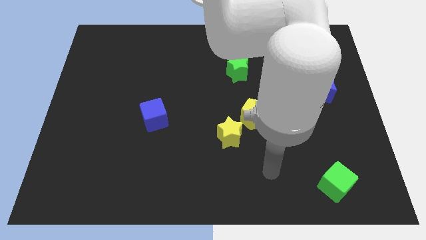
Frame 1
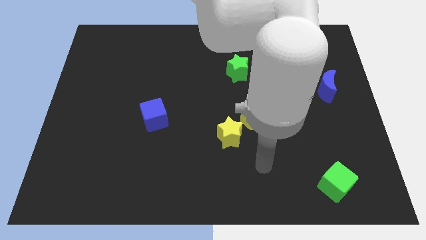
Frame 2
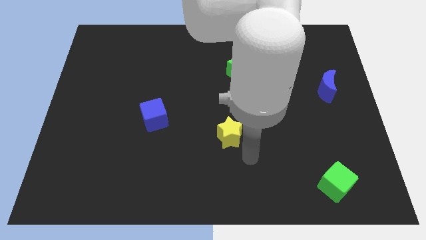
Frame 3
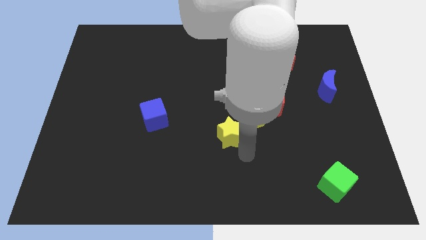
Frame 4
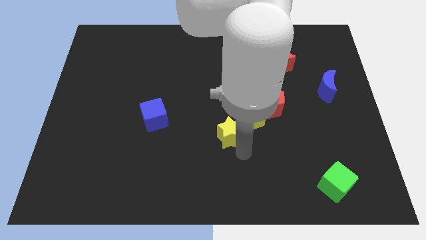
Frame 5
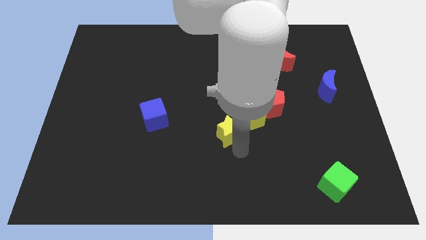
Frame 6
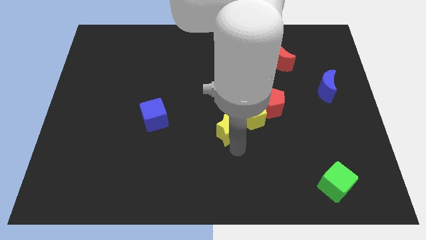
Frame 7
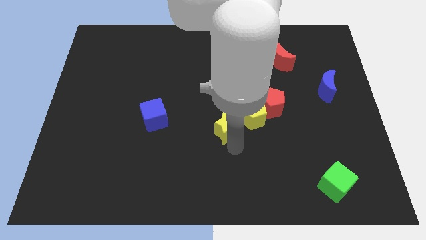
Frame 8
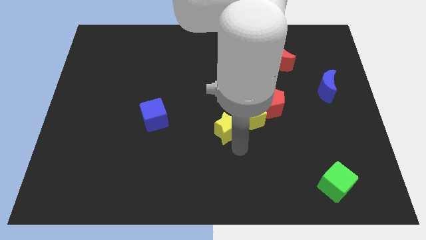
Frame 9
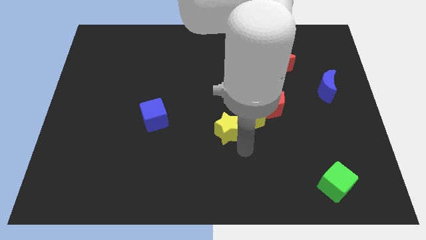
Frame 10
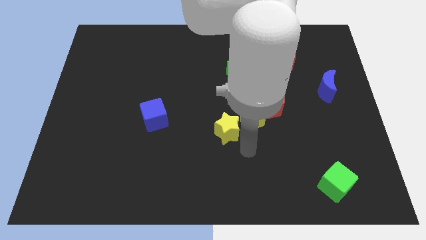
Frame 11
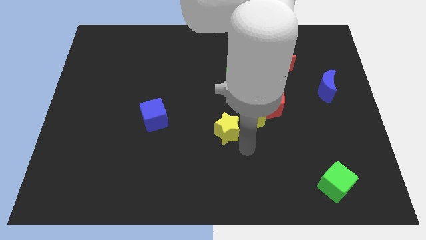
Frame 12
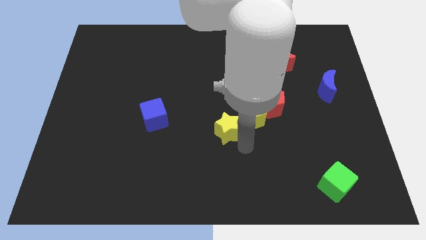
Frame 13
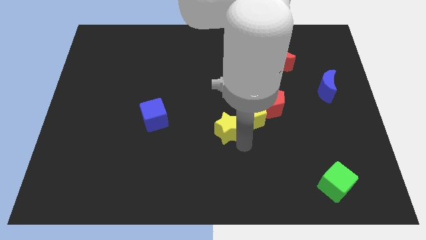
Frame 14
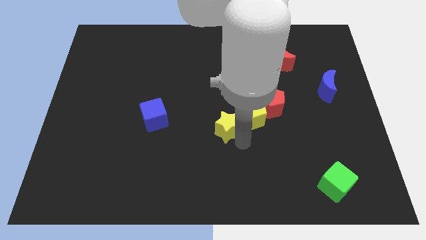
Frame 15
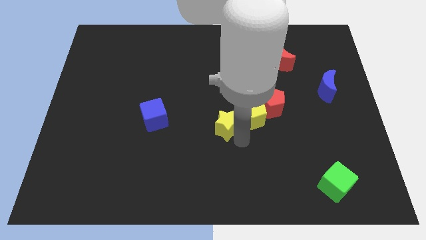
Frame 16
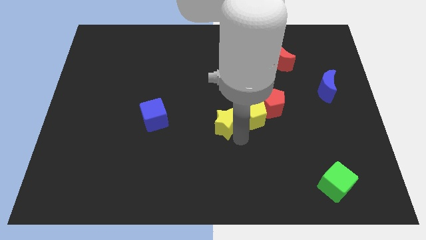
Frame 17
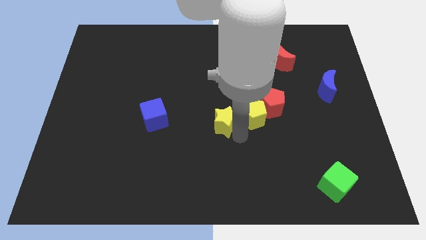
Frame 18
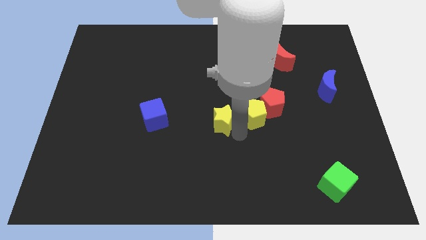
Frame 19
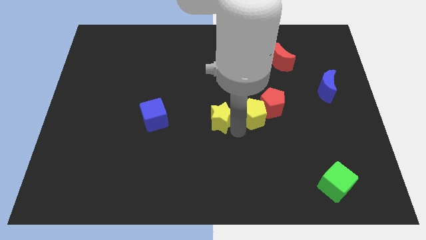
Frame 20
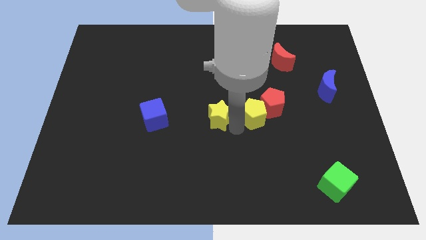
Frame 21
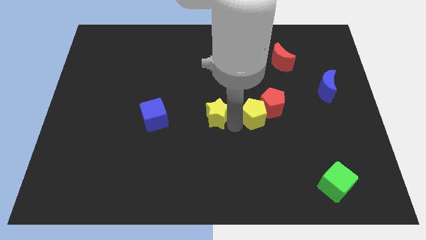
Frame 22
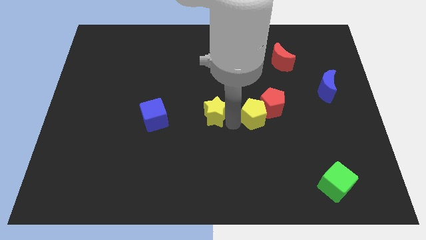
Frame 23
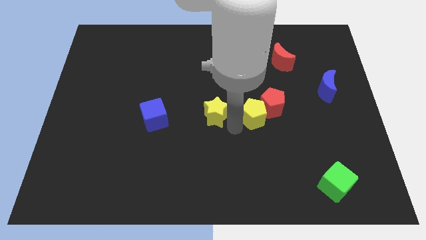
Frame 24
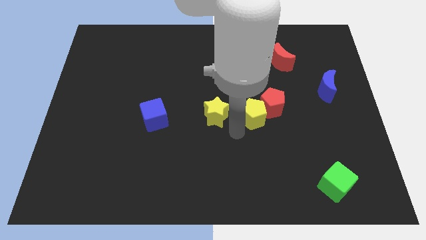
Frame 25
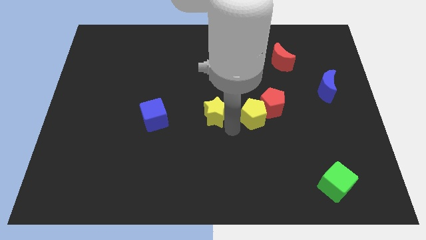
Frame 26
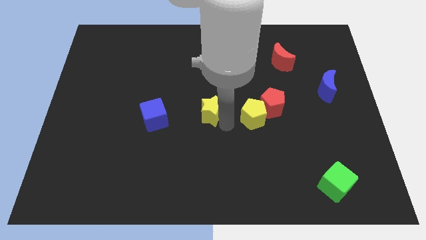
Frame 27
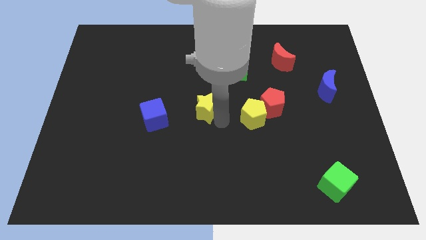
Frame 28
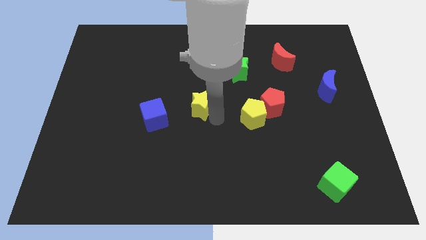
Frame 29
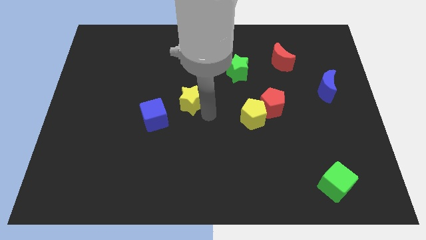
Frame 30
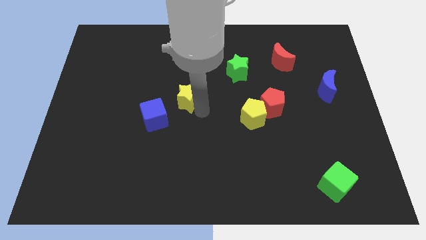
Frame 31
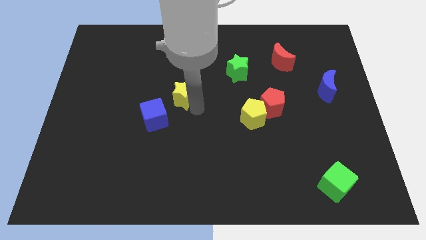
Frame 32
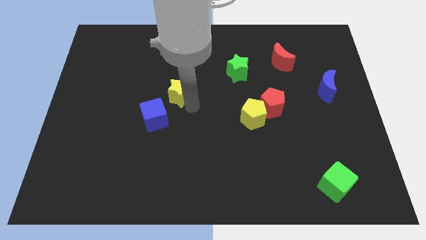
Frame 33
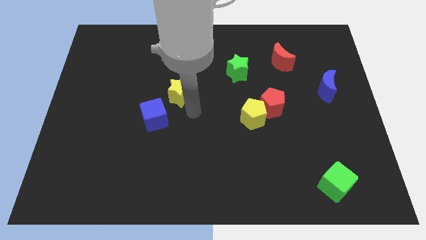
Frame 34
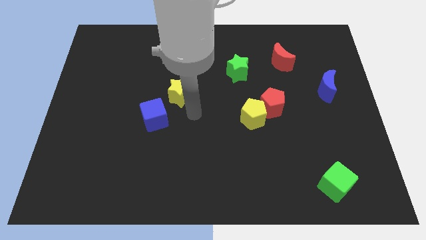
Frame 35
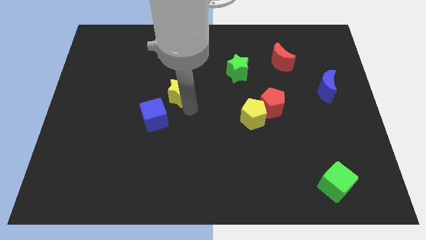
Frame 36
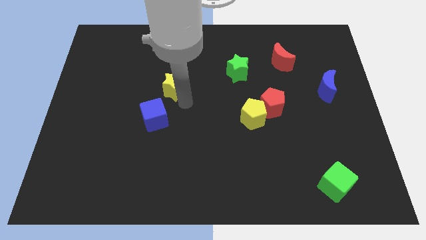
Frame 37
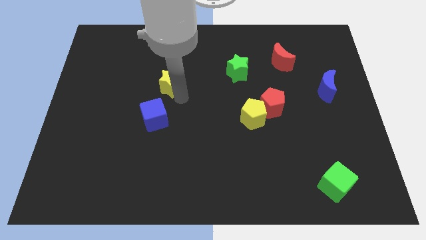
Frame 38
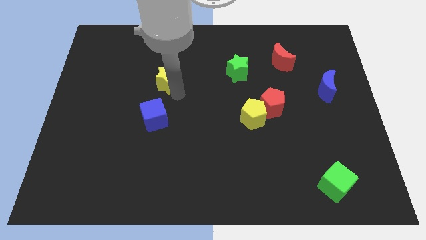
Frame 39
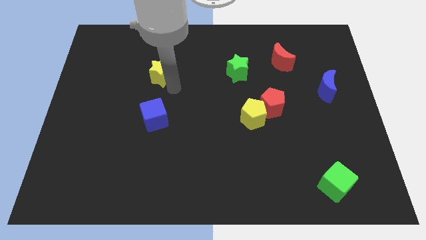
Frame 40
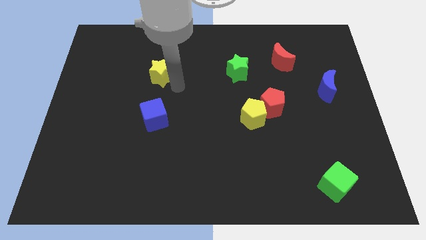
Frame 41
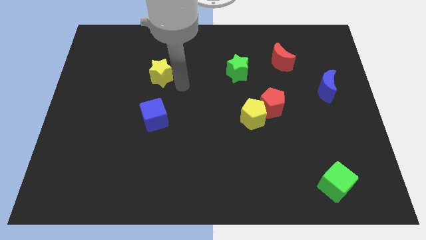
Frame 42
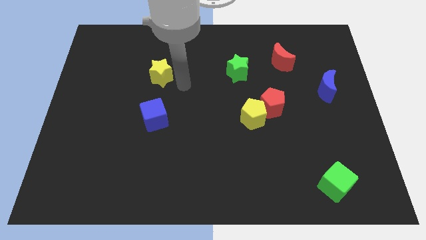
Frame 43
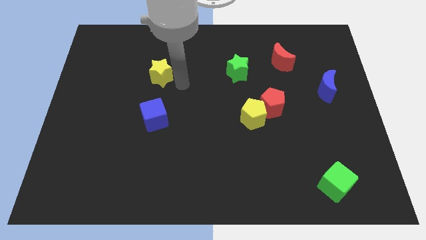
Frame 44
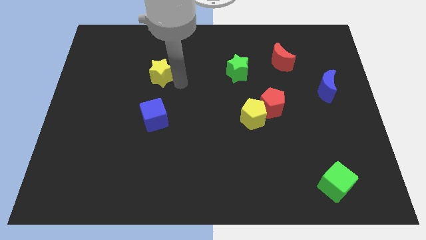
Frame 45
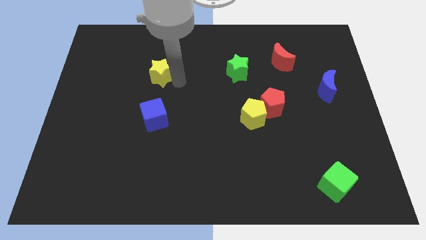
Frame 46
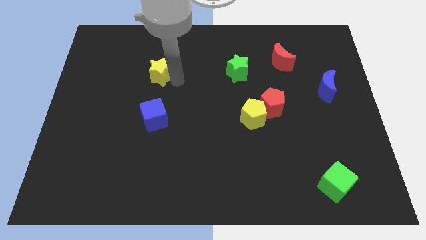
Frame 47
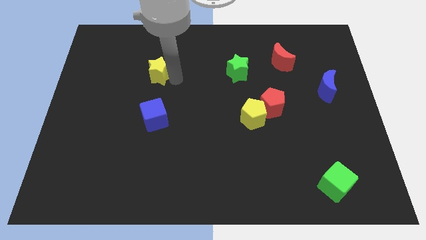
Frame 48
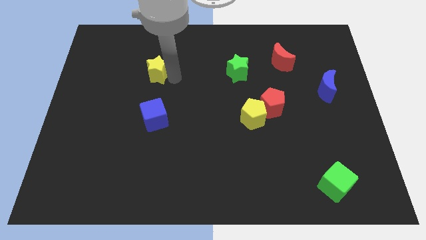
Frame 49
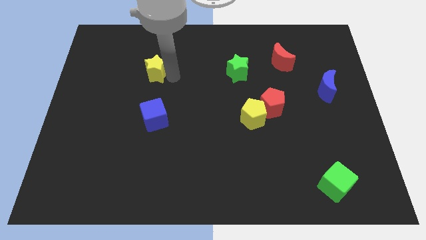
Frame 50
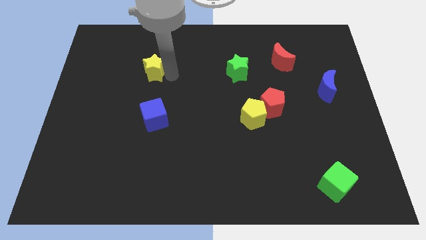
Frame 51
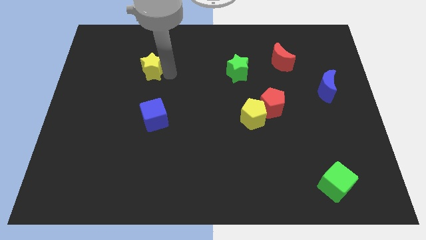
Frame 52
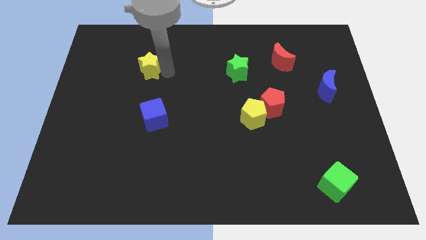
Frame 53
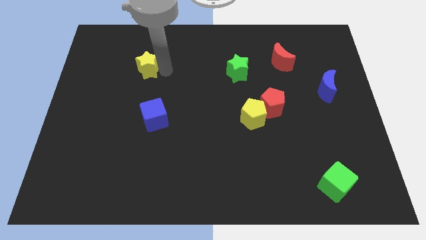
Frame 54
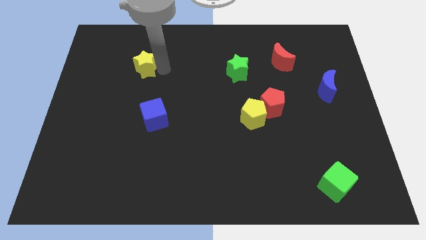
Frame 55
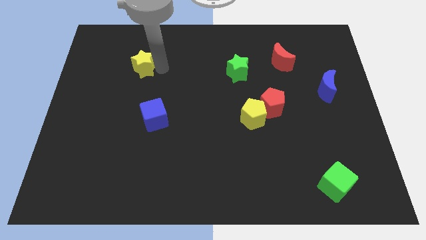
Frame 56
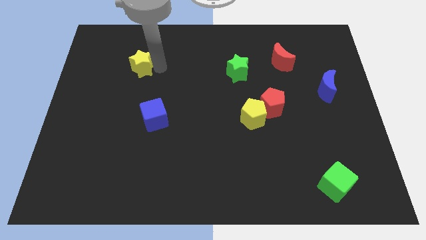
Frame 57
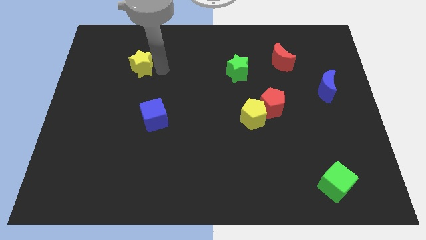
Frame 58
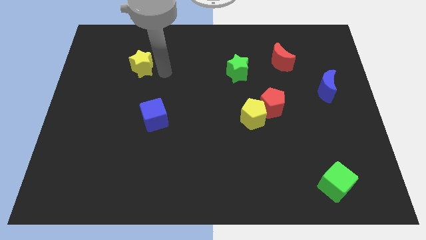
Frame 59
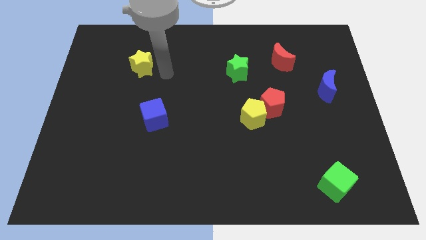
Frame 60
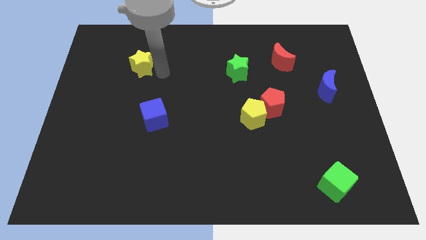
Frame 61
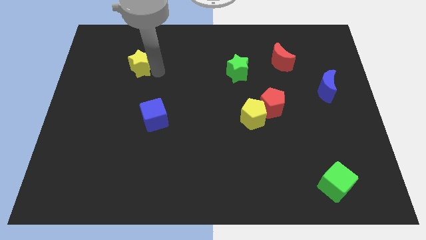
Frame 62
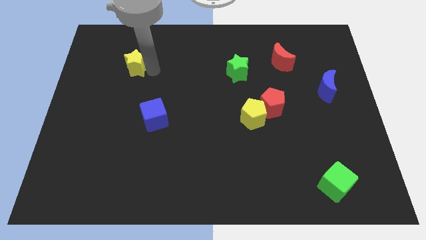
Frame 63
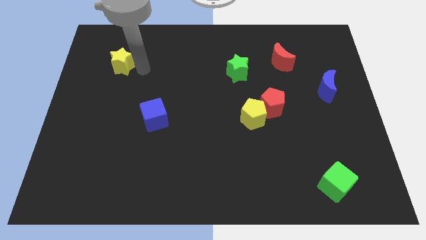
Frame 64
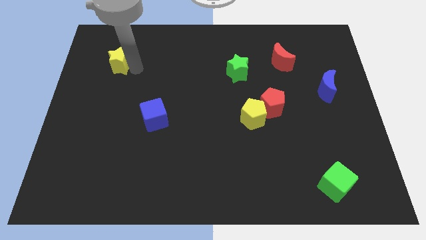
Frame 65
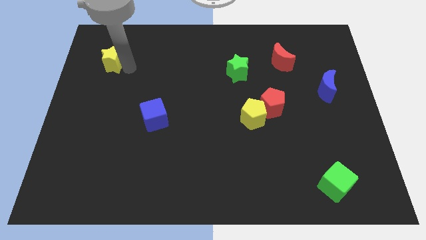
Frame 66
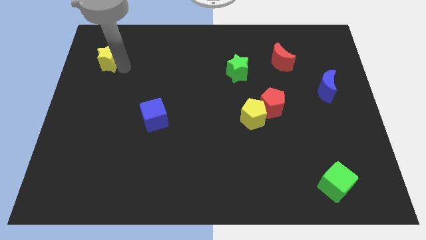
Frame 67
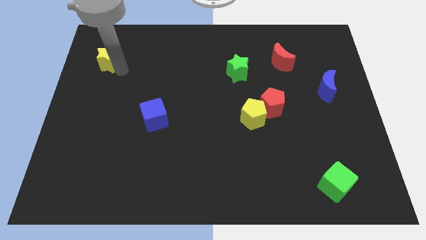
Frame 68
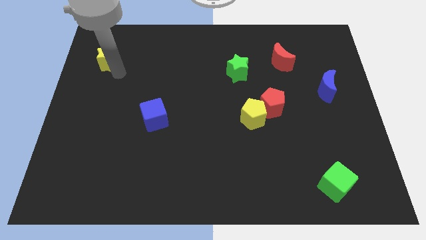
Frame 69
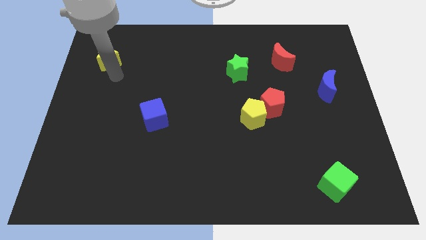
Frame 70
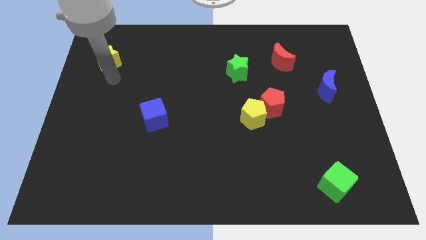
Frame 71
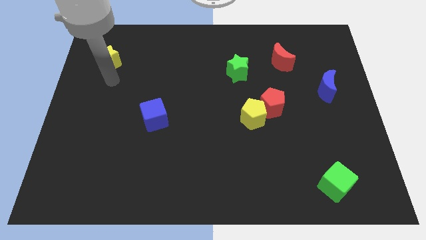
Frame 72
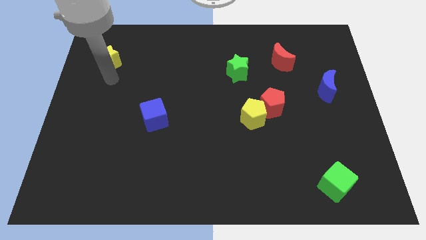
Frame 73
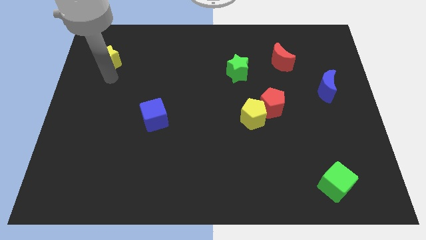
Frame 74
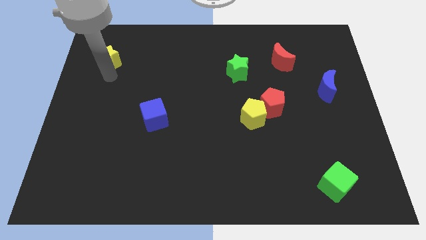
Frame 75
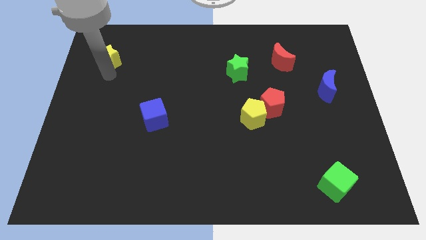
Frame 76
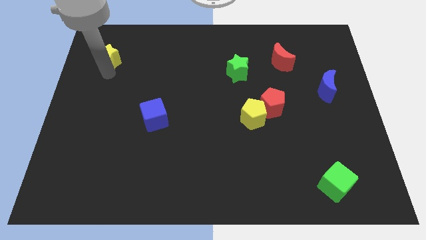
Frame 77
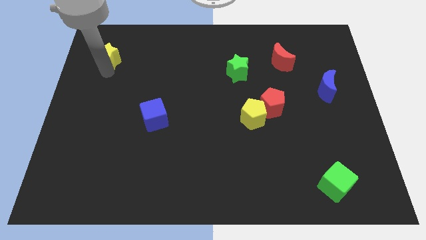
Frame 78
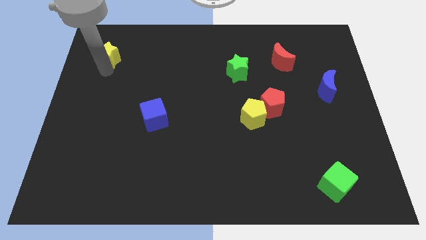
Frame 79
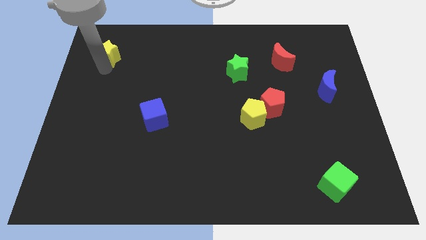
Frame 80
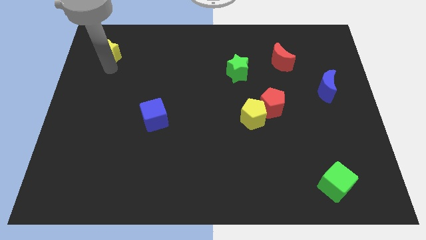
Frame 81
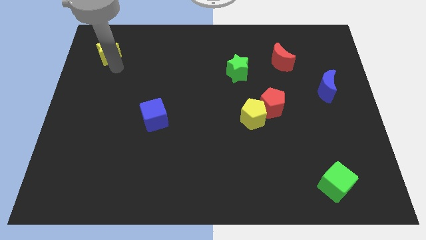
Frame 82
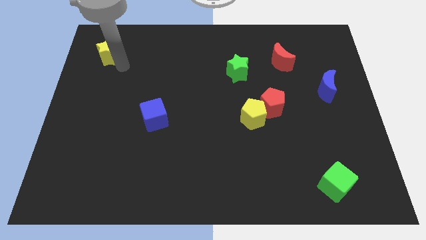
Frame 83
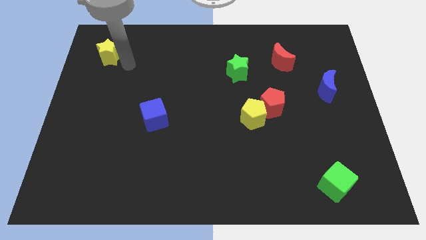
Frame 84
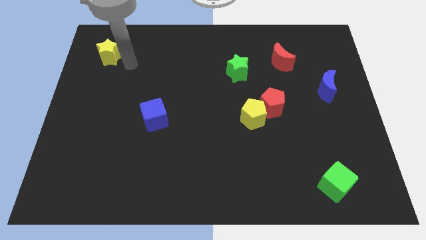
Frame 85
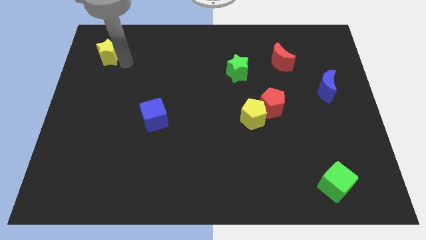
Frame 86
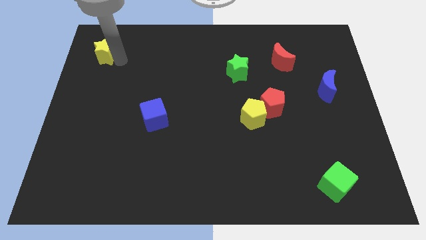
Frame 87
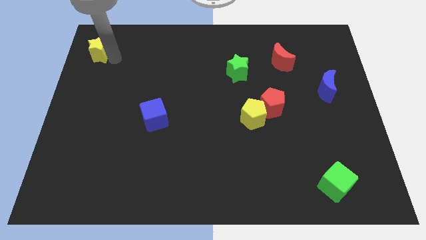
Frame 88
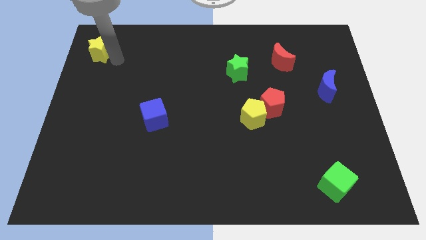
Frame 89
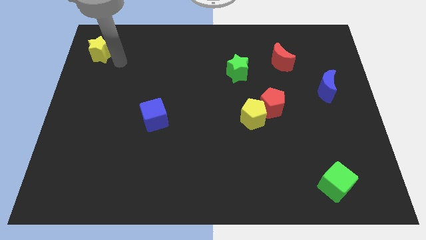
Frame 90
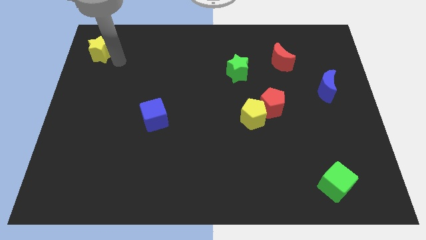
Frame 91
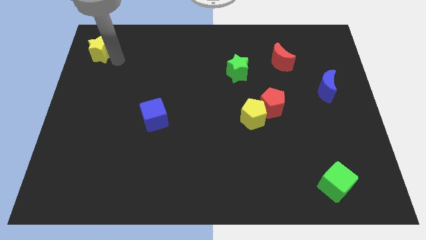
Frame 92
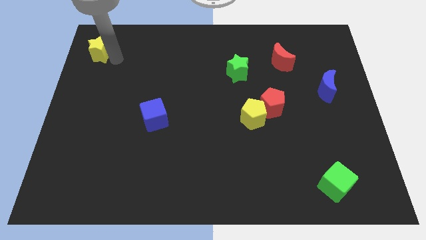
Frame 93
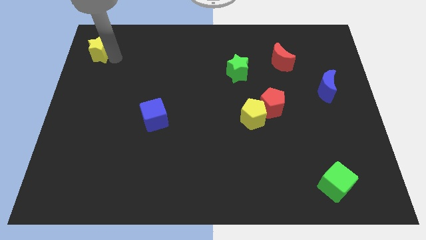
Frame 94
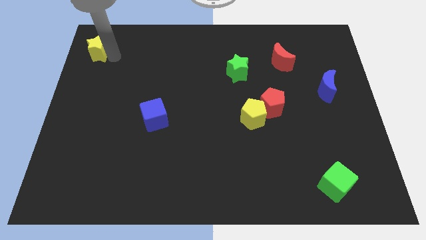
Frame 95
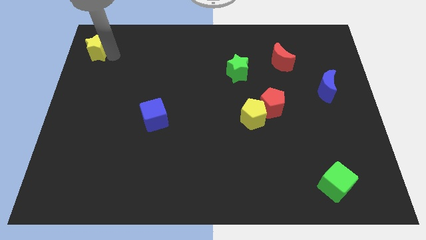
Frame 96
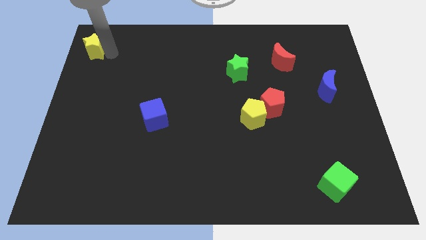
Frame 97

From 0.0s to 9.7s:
put the yellow star to the upper left corner
